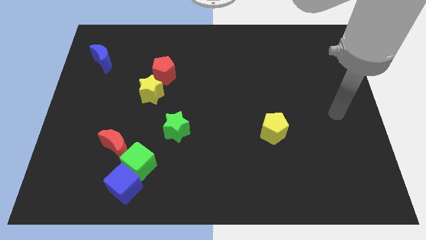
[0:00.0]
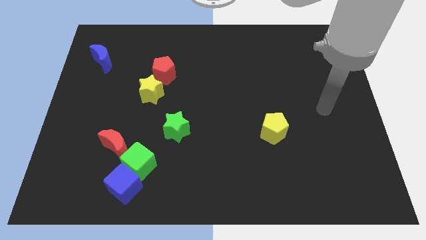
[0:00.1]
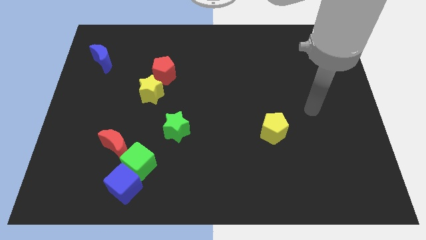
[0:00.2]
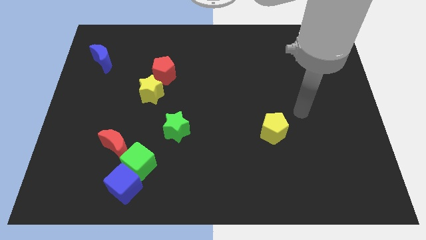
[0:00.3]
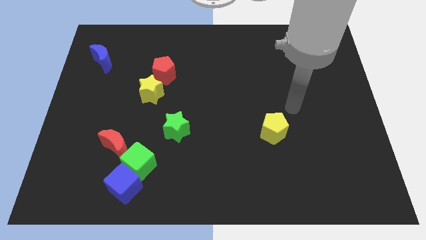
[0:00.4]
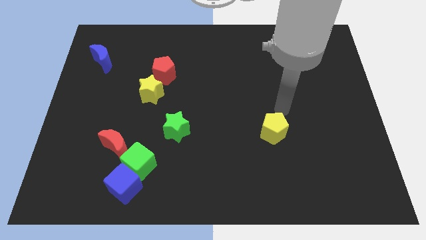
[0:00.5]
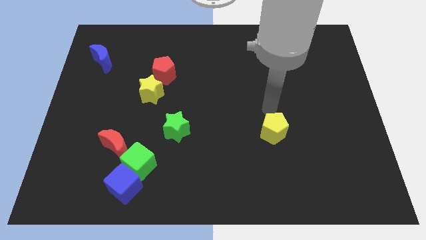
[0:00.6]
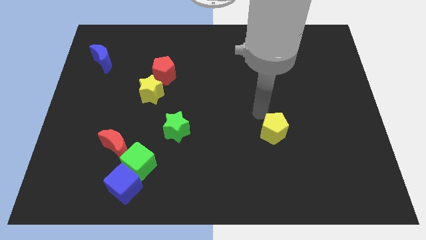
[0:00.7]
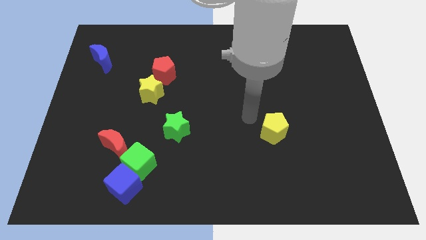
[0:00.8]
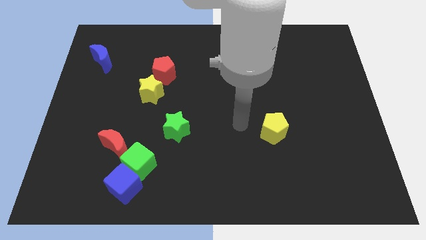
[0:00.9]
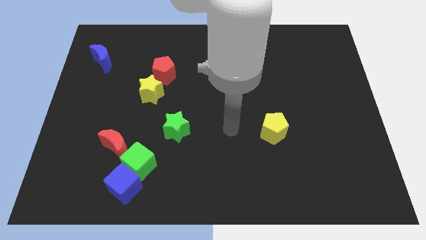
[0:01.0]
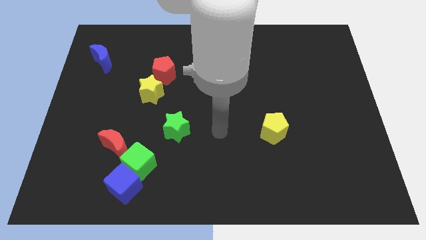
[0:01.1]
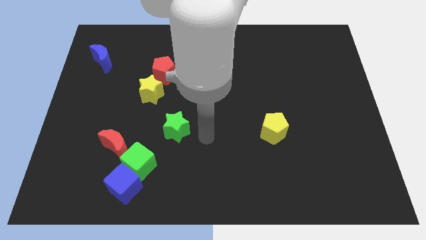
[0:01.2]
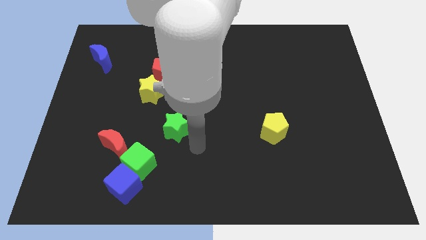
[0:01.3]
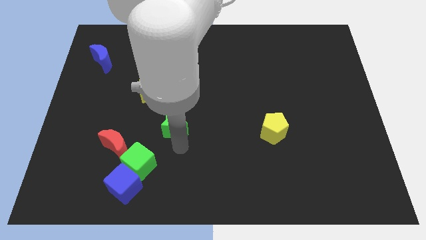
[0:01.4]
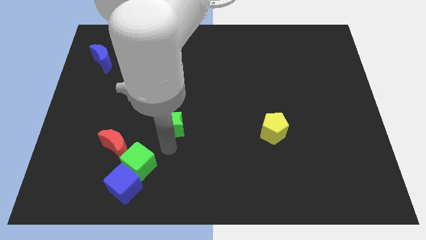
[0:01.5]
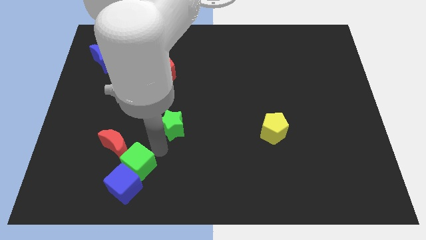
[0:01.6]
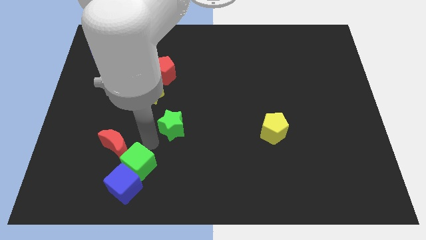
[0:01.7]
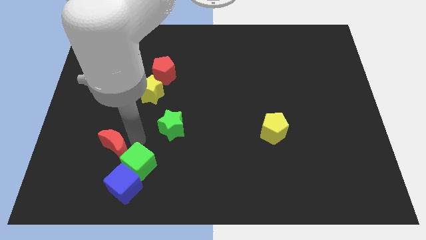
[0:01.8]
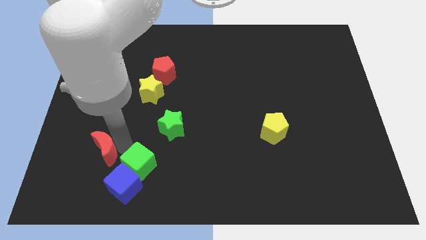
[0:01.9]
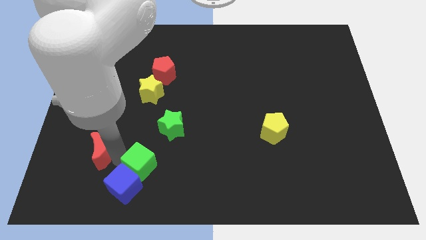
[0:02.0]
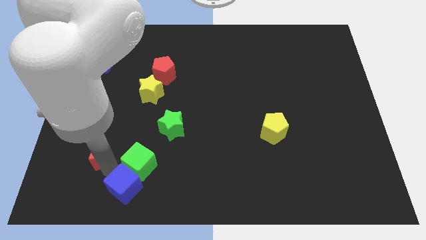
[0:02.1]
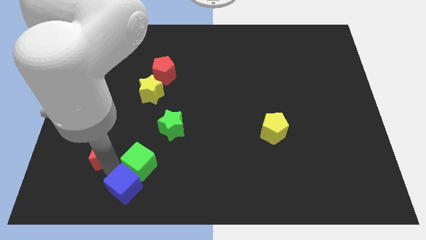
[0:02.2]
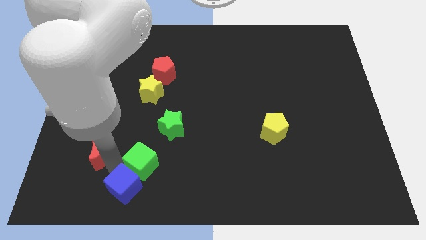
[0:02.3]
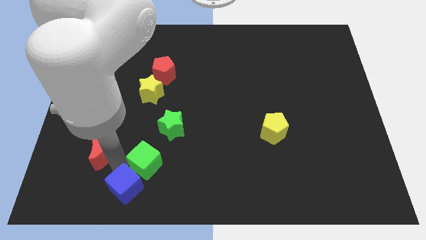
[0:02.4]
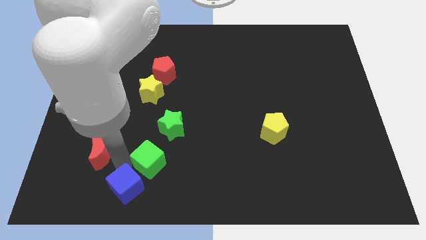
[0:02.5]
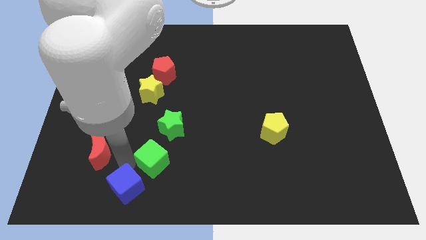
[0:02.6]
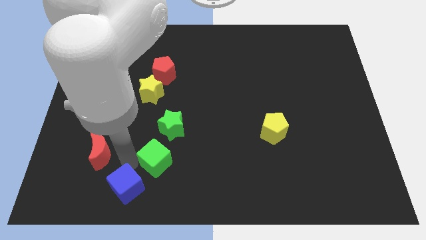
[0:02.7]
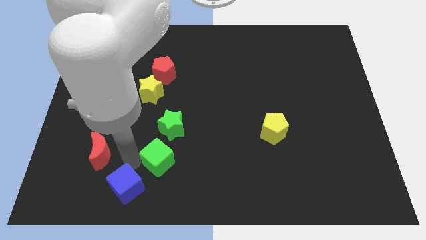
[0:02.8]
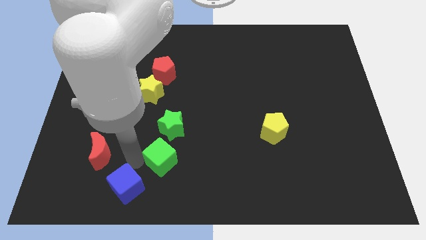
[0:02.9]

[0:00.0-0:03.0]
pull the green cube apart from the blue cube and red moon

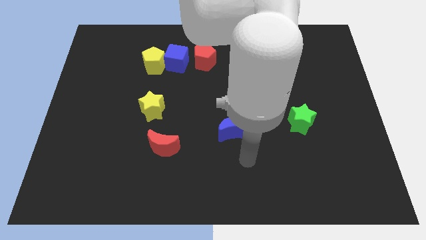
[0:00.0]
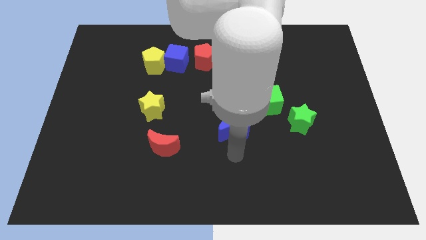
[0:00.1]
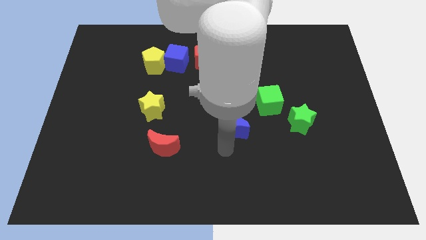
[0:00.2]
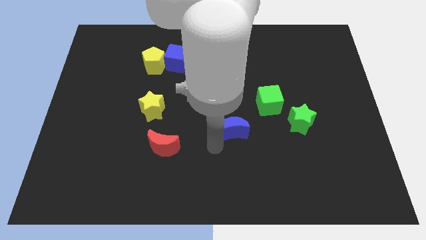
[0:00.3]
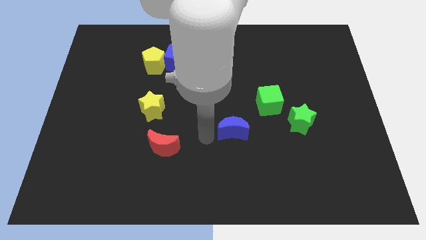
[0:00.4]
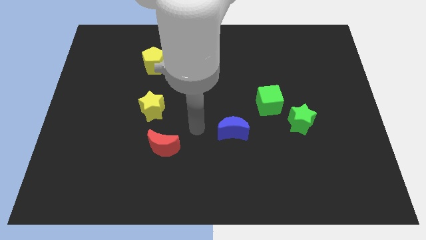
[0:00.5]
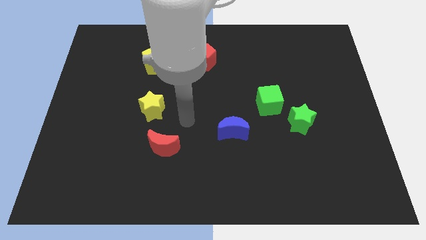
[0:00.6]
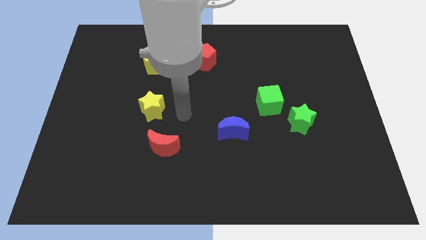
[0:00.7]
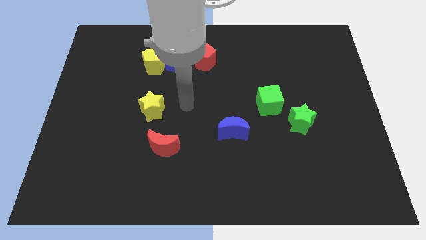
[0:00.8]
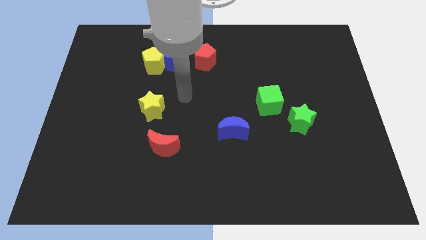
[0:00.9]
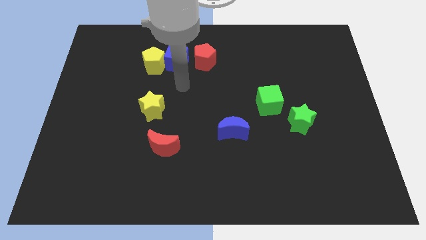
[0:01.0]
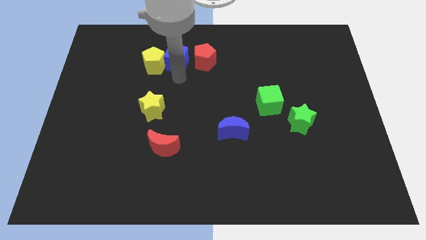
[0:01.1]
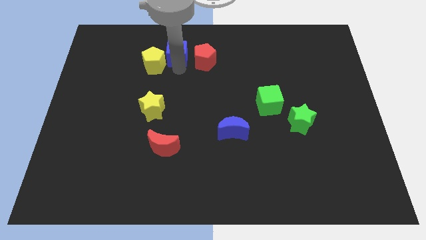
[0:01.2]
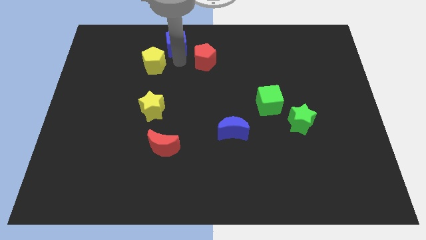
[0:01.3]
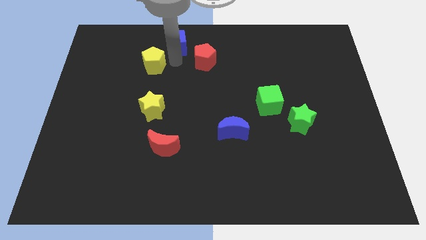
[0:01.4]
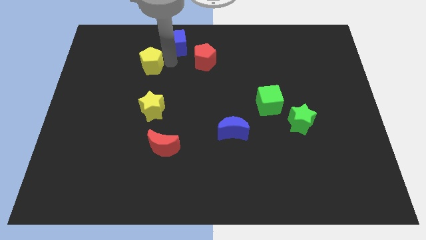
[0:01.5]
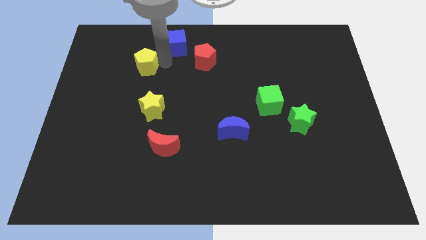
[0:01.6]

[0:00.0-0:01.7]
move the yellow pentagon away from the blue cube

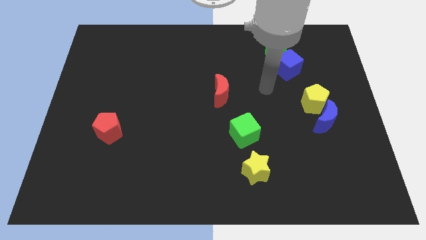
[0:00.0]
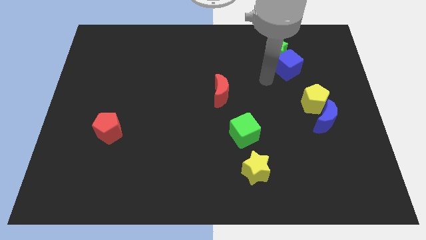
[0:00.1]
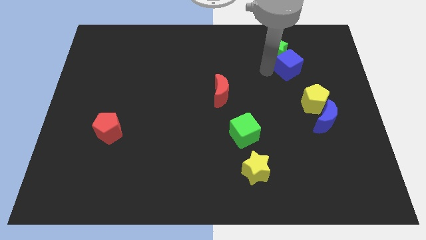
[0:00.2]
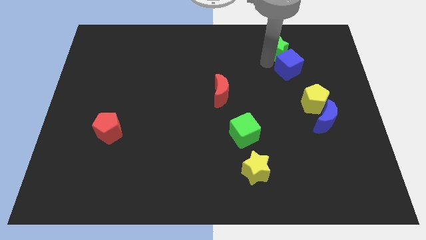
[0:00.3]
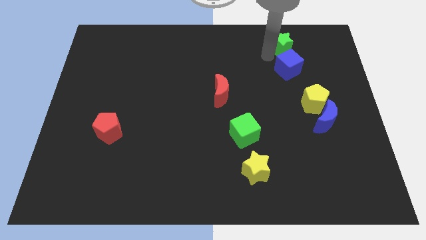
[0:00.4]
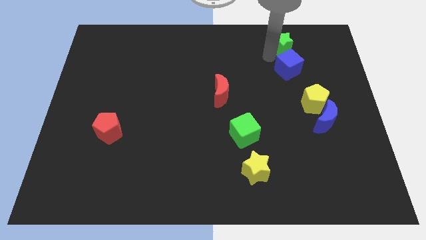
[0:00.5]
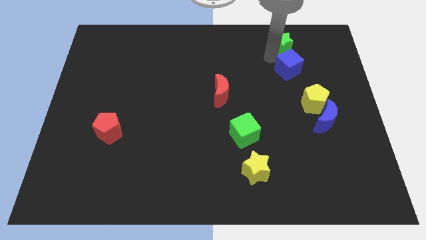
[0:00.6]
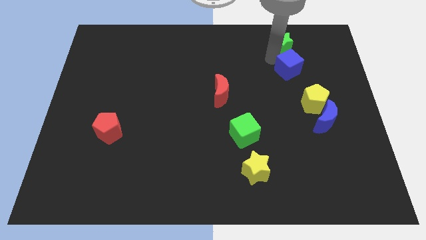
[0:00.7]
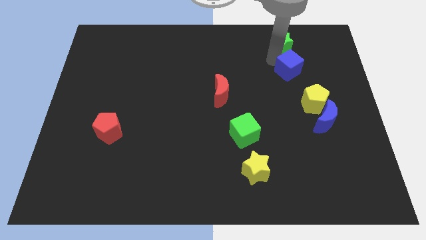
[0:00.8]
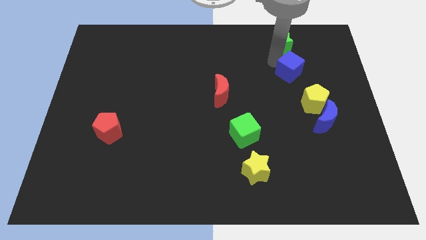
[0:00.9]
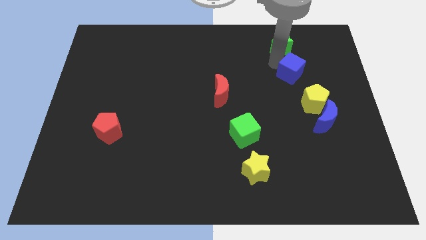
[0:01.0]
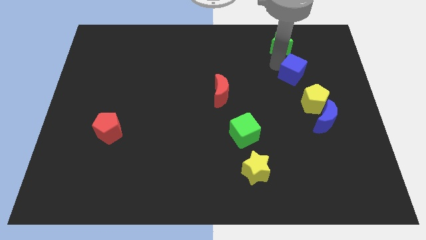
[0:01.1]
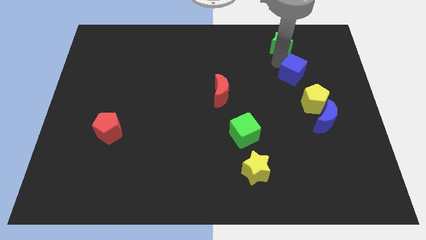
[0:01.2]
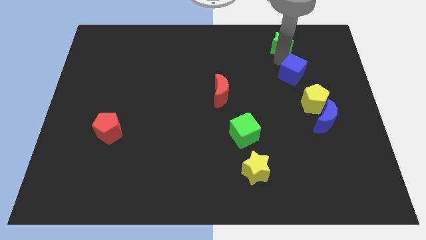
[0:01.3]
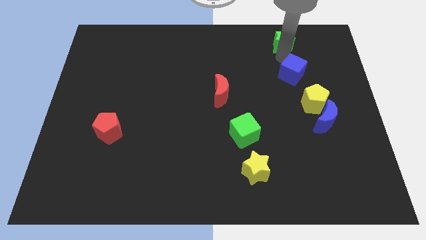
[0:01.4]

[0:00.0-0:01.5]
pull the blue cube apart from the green star

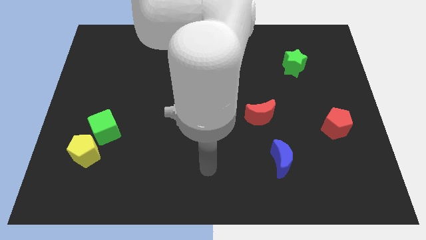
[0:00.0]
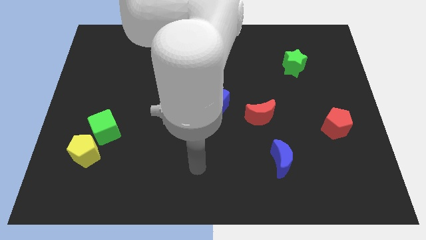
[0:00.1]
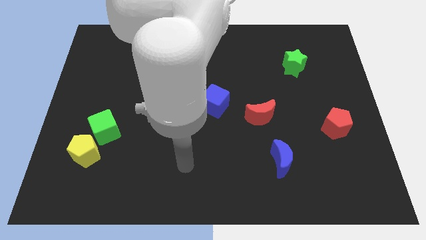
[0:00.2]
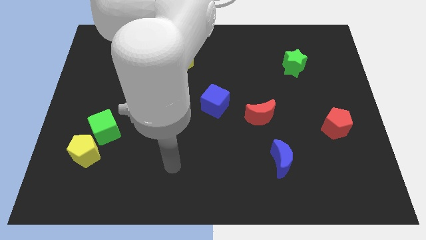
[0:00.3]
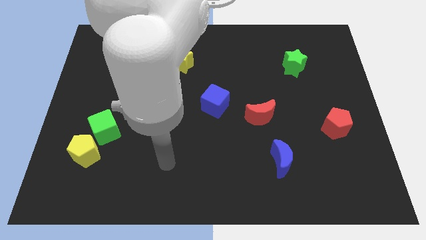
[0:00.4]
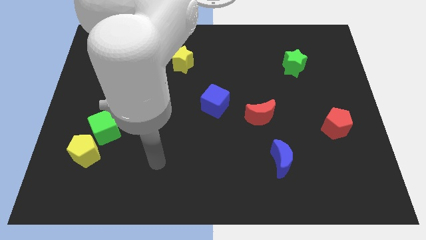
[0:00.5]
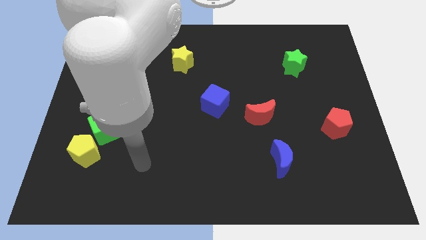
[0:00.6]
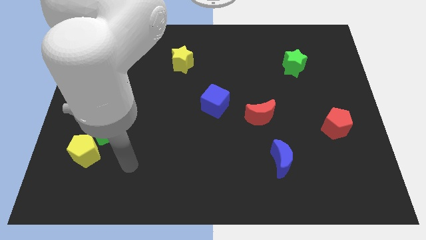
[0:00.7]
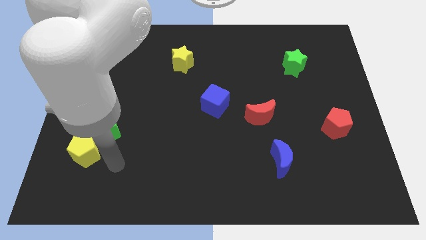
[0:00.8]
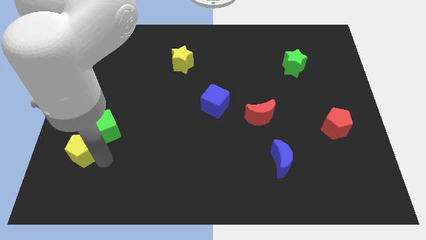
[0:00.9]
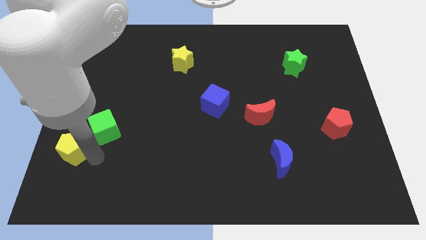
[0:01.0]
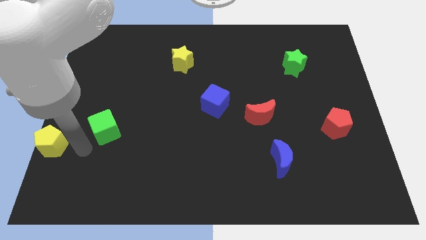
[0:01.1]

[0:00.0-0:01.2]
pull the green cube apart from the yellow pentagon

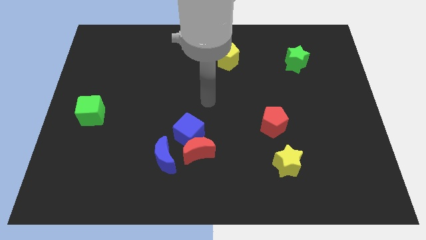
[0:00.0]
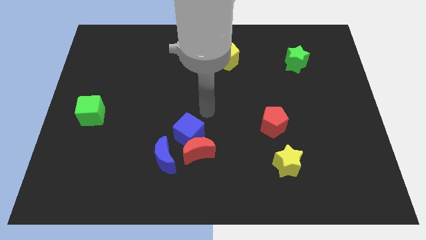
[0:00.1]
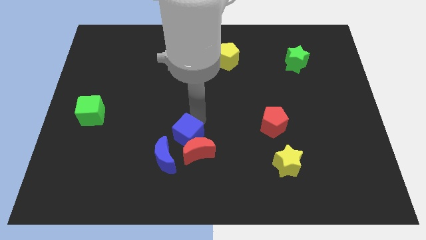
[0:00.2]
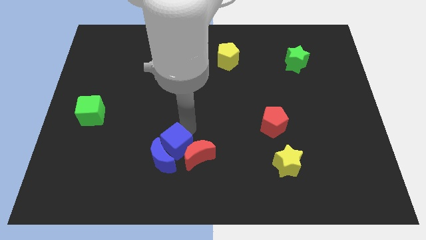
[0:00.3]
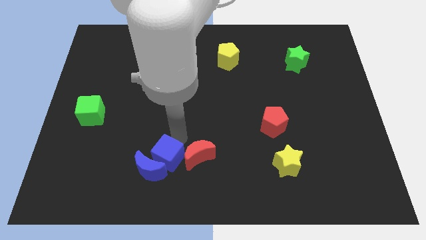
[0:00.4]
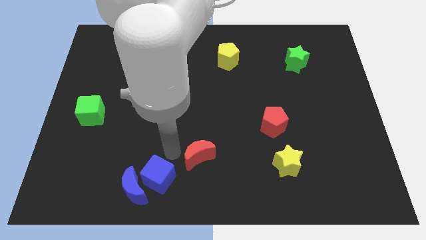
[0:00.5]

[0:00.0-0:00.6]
move the red moon away from the blue cube and blue moon

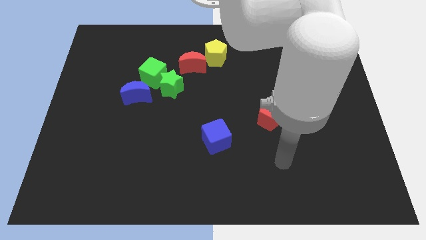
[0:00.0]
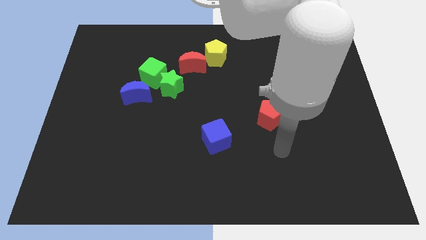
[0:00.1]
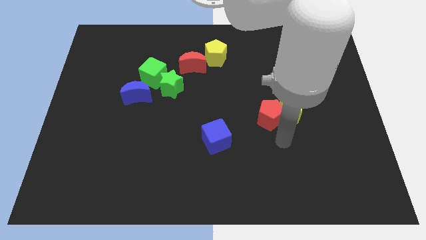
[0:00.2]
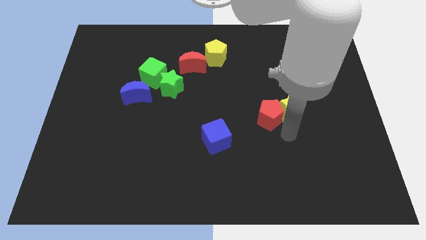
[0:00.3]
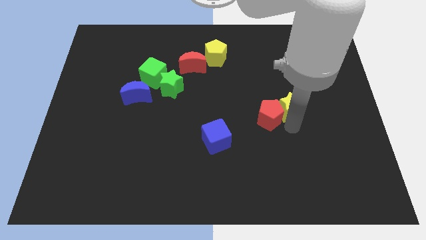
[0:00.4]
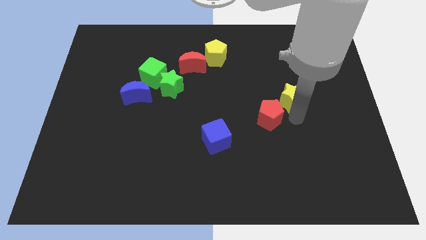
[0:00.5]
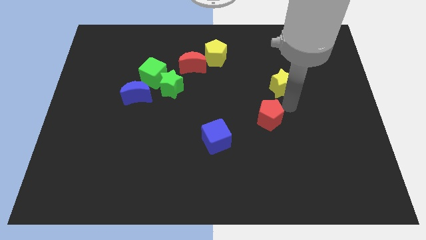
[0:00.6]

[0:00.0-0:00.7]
move the red pentagon away from the yellow star

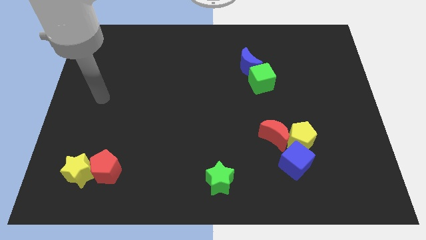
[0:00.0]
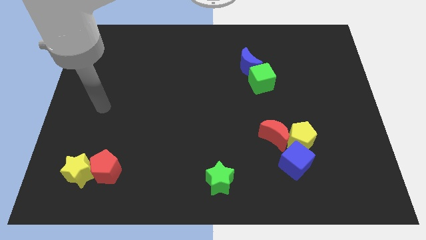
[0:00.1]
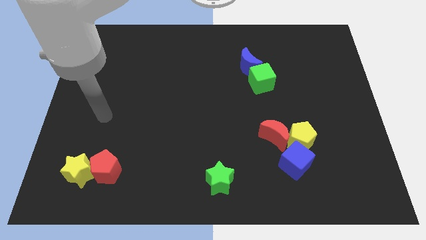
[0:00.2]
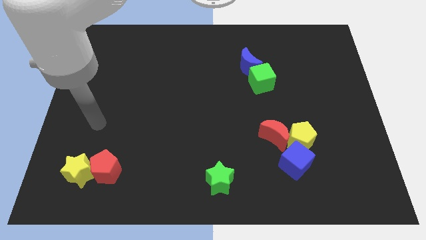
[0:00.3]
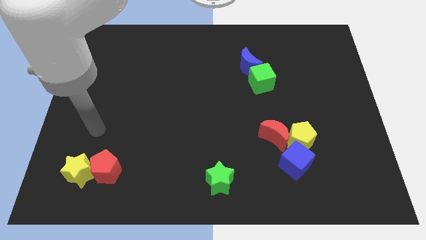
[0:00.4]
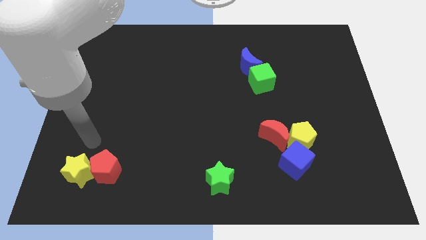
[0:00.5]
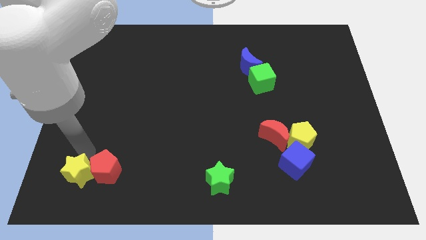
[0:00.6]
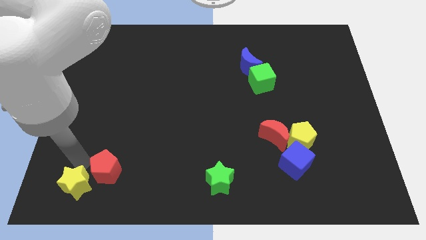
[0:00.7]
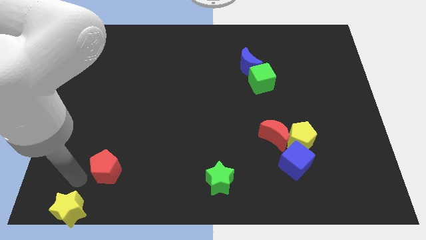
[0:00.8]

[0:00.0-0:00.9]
separate the red pentagon from the yellow star
